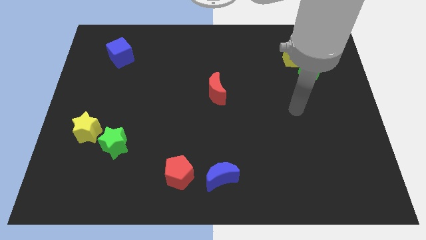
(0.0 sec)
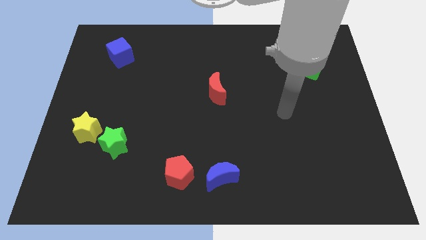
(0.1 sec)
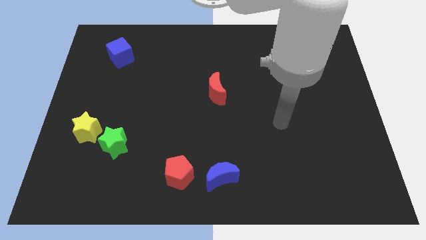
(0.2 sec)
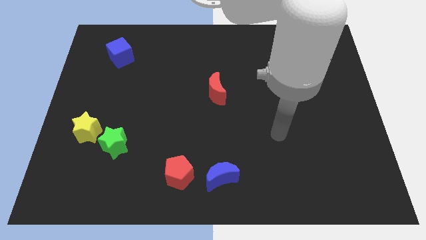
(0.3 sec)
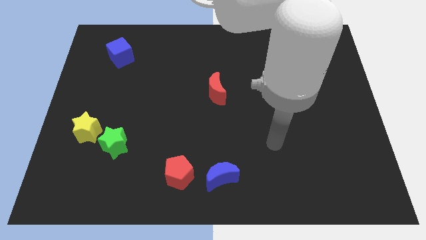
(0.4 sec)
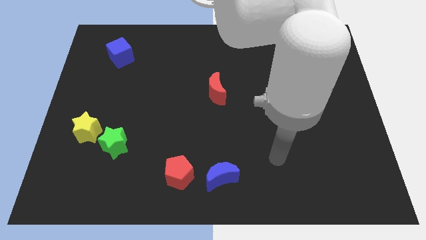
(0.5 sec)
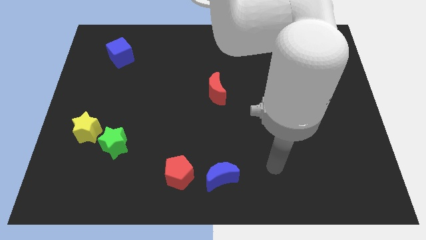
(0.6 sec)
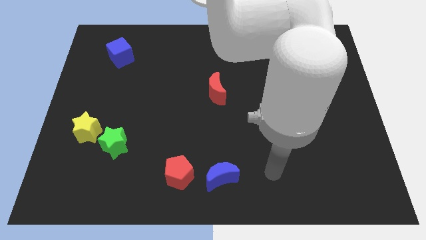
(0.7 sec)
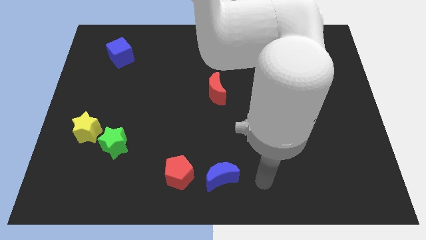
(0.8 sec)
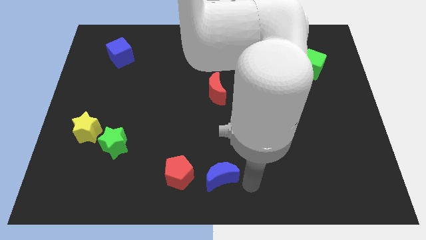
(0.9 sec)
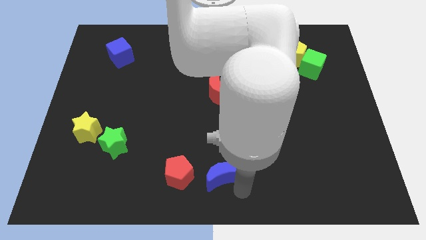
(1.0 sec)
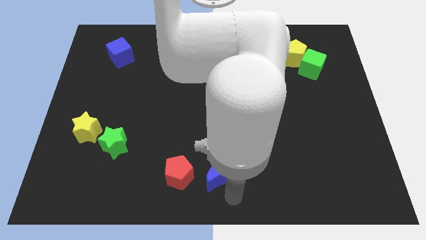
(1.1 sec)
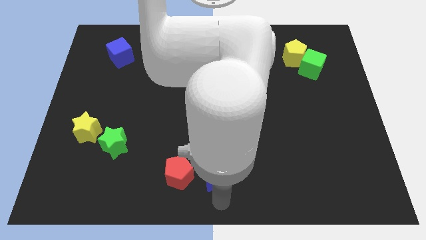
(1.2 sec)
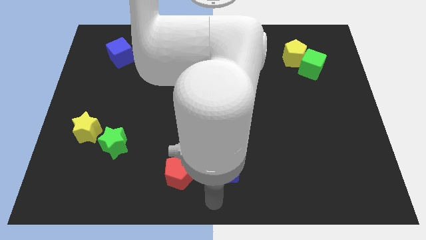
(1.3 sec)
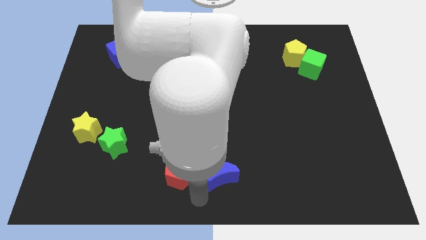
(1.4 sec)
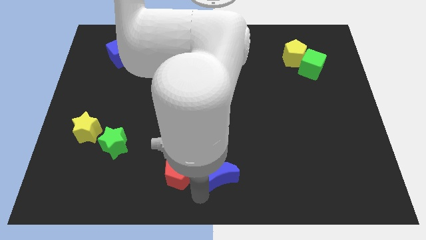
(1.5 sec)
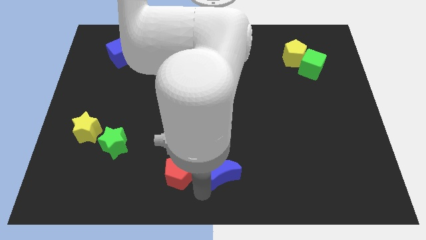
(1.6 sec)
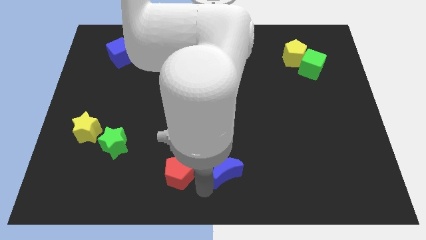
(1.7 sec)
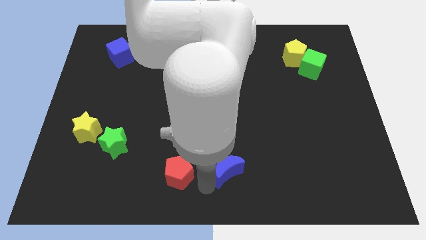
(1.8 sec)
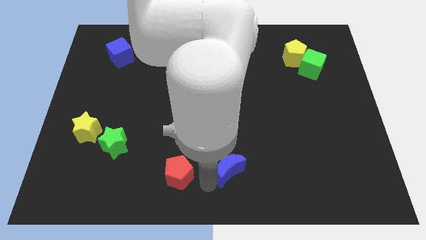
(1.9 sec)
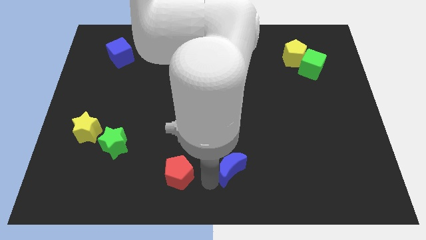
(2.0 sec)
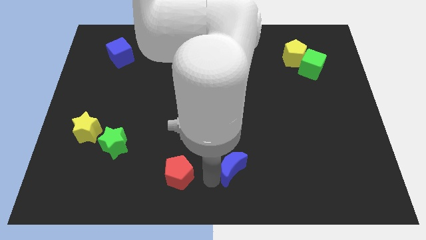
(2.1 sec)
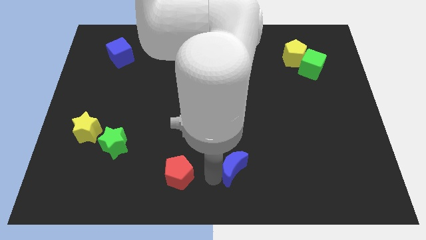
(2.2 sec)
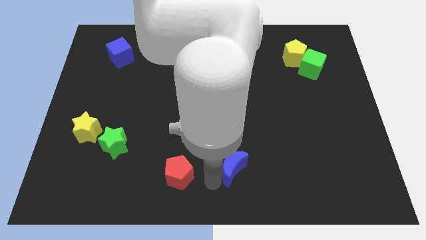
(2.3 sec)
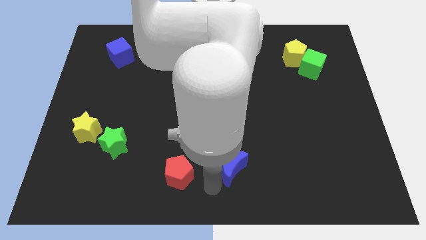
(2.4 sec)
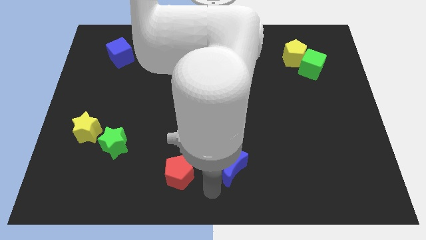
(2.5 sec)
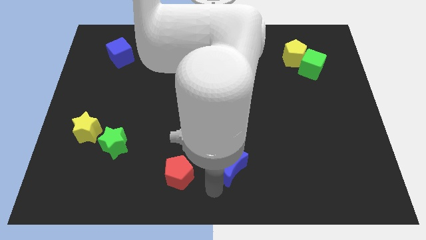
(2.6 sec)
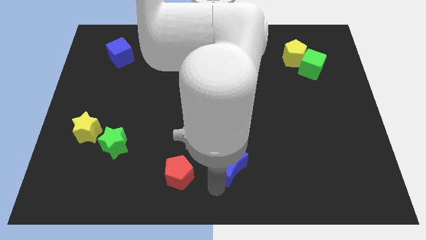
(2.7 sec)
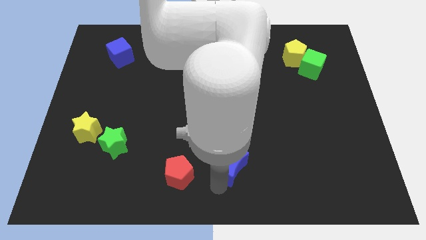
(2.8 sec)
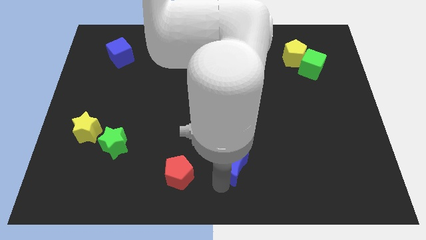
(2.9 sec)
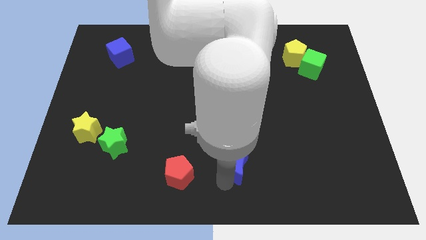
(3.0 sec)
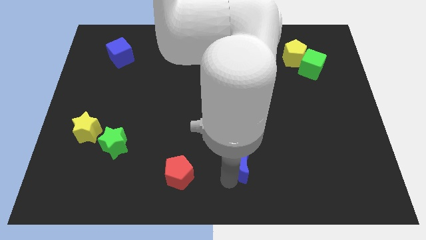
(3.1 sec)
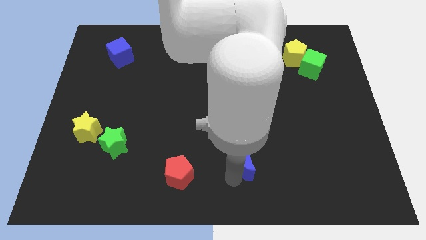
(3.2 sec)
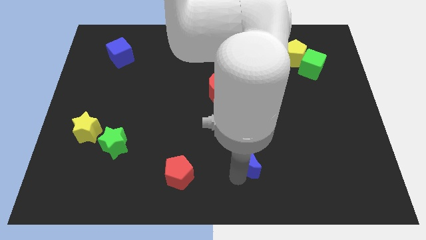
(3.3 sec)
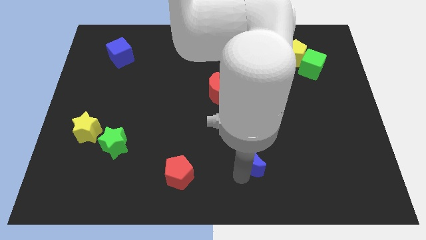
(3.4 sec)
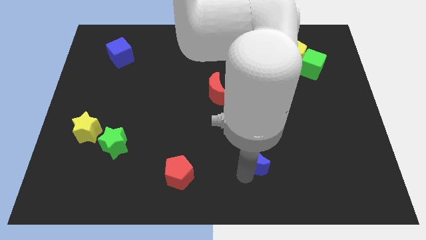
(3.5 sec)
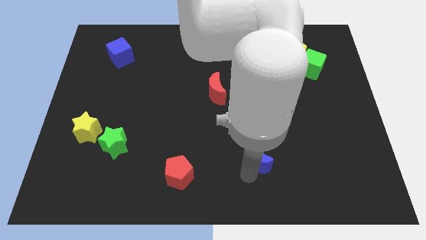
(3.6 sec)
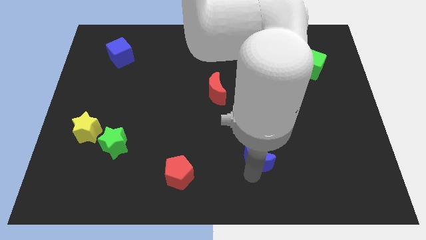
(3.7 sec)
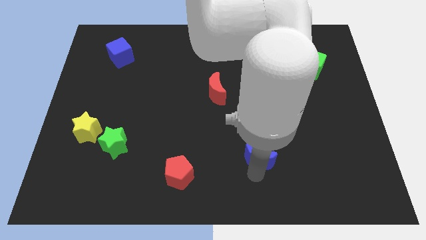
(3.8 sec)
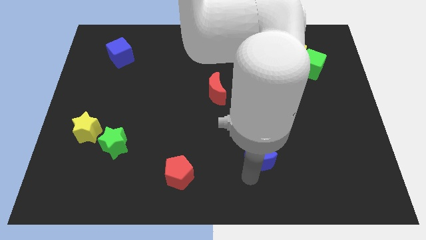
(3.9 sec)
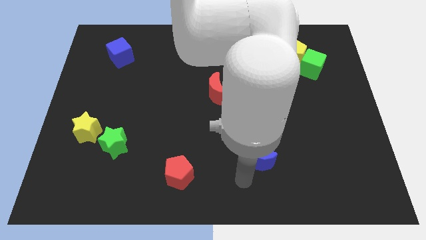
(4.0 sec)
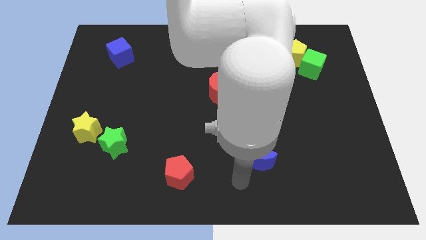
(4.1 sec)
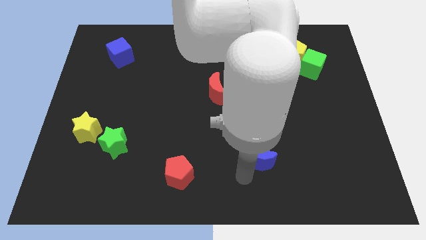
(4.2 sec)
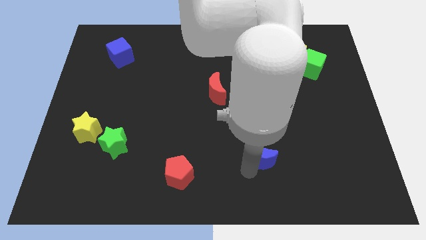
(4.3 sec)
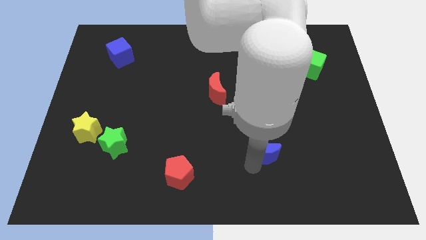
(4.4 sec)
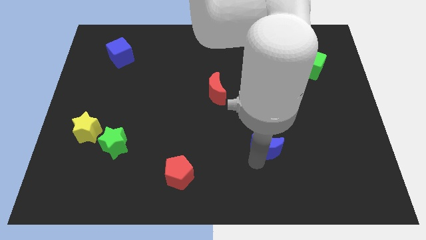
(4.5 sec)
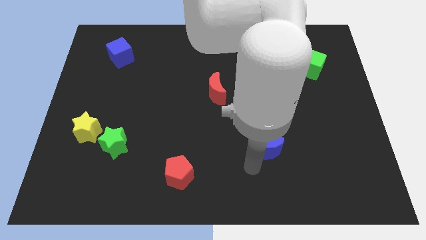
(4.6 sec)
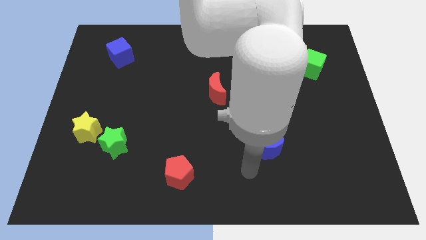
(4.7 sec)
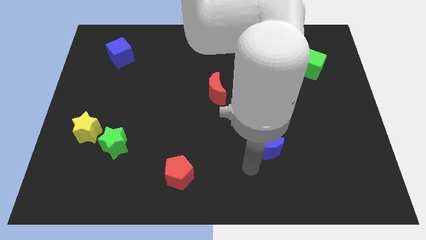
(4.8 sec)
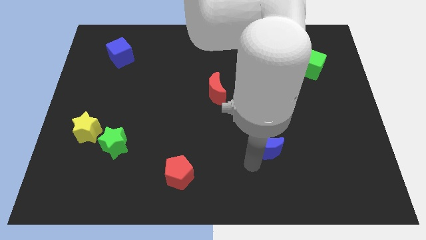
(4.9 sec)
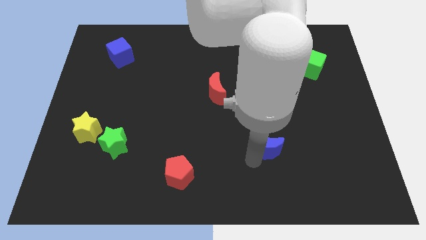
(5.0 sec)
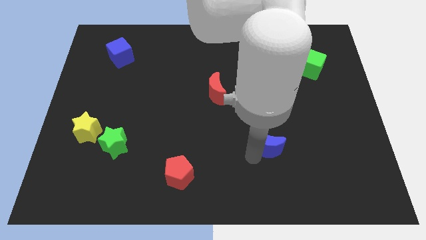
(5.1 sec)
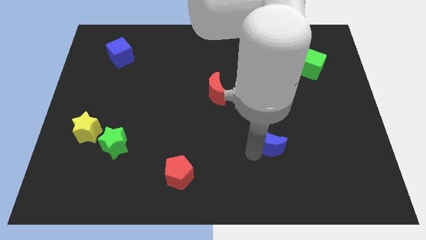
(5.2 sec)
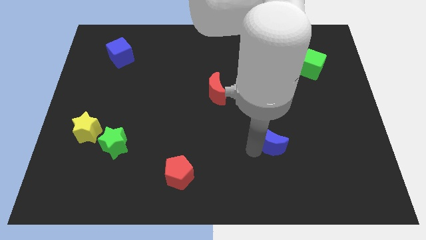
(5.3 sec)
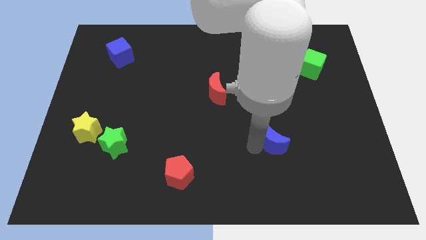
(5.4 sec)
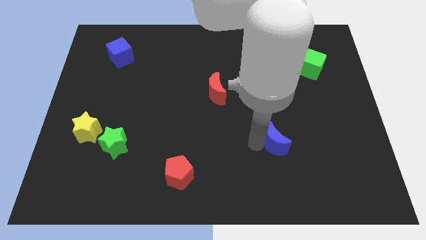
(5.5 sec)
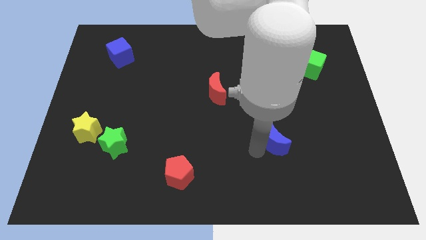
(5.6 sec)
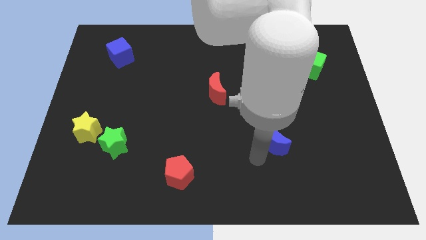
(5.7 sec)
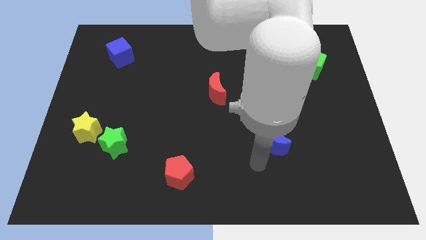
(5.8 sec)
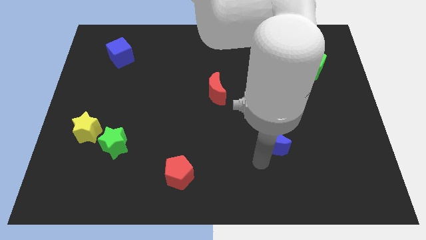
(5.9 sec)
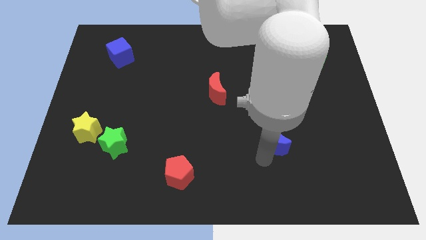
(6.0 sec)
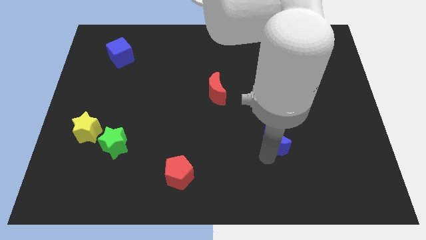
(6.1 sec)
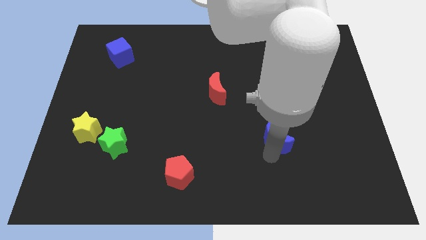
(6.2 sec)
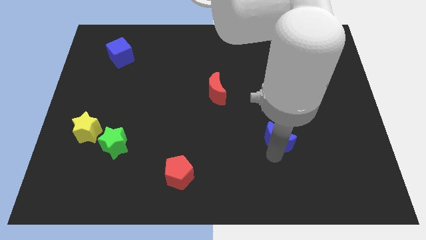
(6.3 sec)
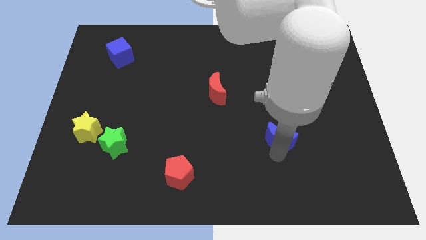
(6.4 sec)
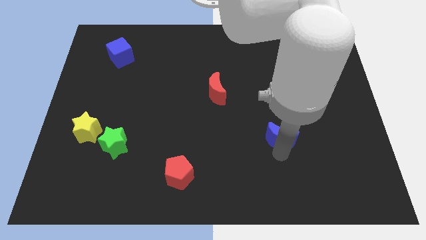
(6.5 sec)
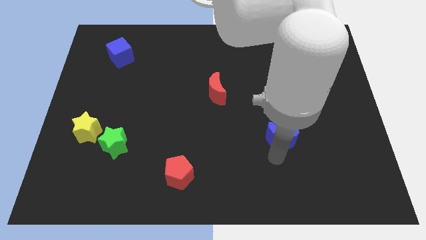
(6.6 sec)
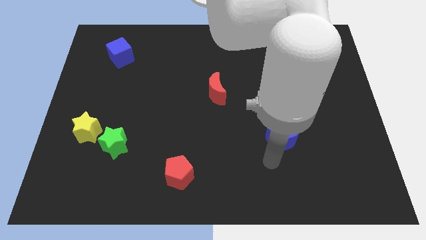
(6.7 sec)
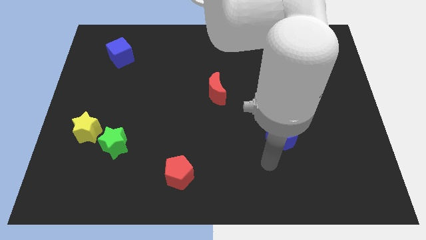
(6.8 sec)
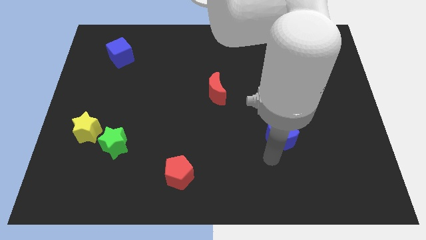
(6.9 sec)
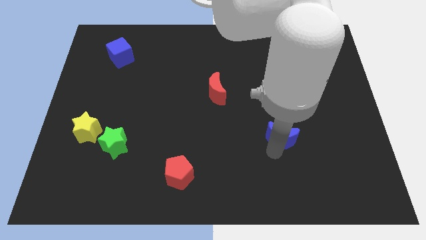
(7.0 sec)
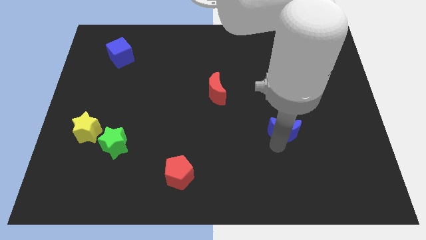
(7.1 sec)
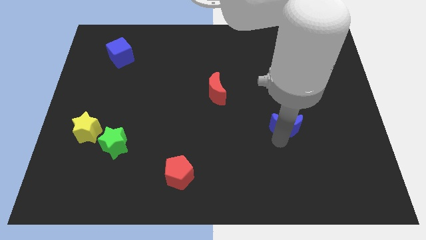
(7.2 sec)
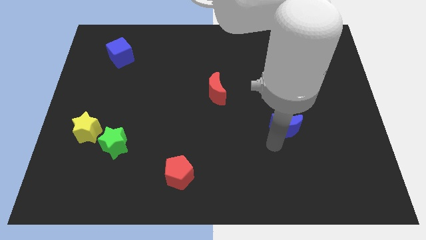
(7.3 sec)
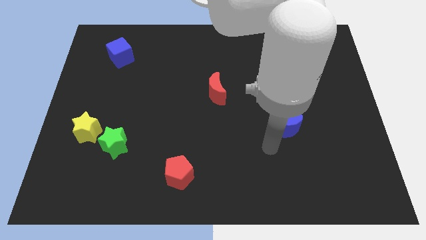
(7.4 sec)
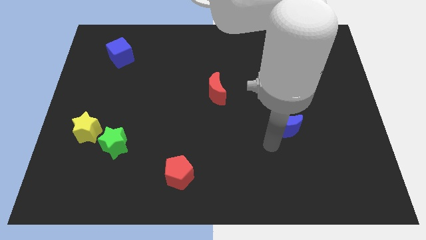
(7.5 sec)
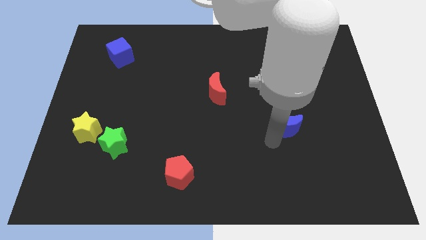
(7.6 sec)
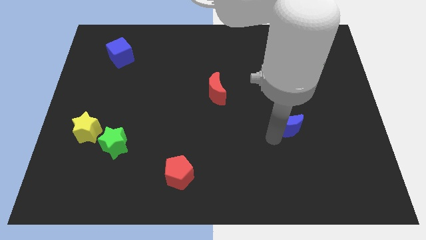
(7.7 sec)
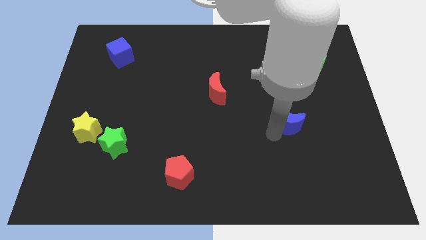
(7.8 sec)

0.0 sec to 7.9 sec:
move the blue moon up and then to the right

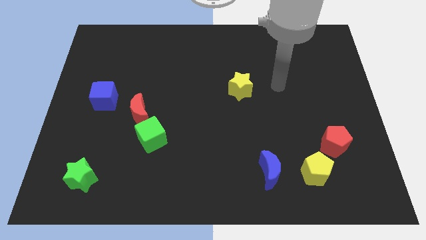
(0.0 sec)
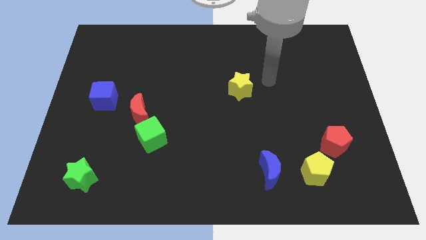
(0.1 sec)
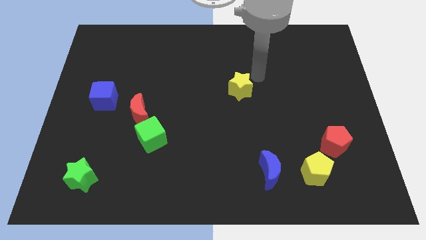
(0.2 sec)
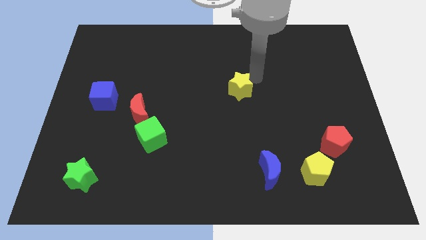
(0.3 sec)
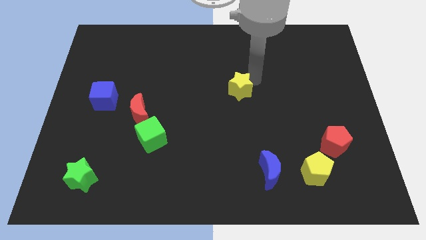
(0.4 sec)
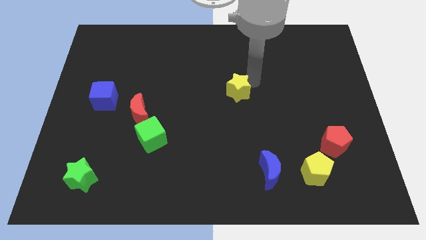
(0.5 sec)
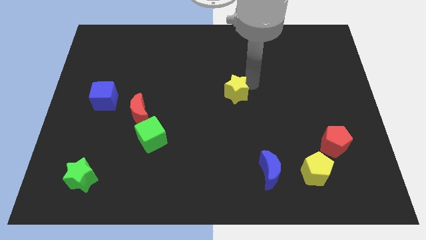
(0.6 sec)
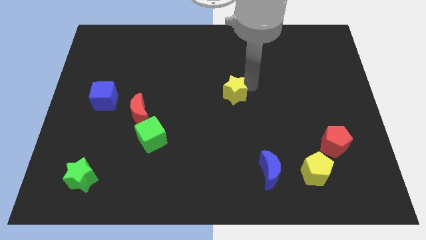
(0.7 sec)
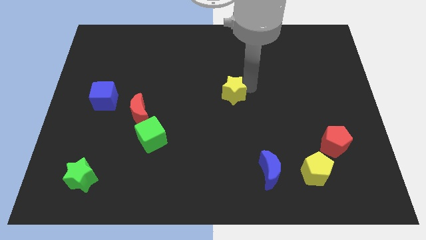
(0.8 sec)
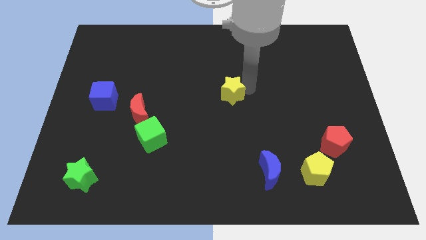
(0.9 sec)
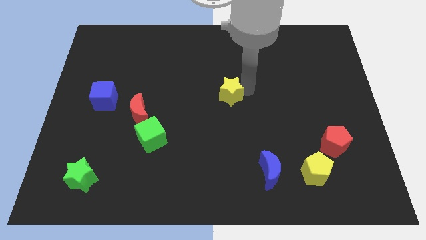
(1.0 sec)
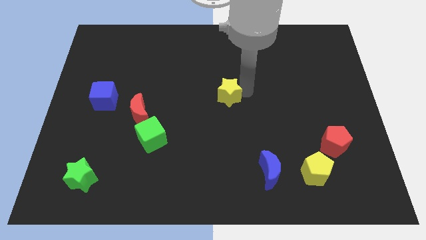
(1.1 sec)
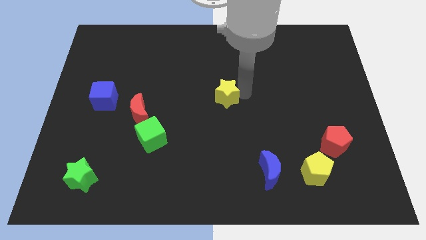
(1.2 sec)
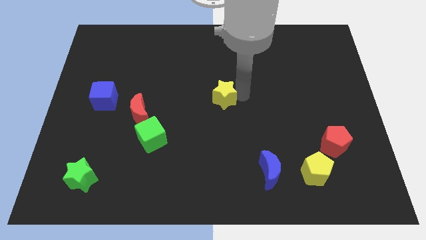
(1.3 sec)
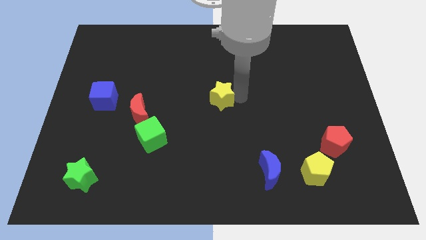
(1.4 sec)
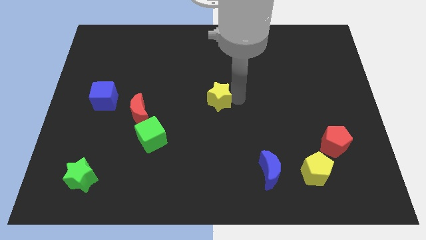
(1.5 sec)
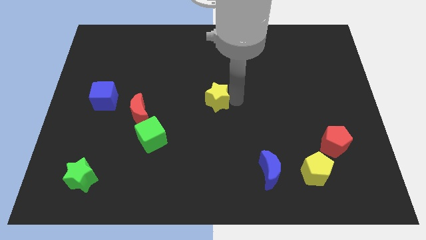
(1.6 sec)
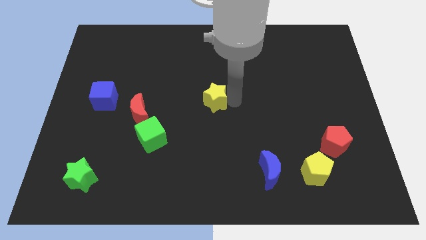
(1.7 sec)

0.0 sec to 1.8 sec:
slide the yellow star somewhat down and left
